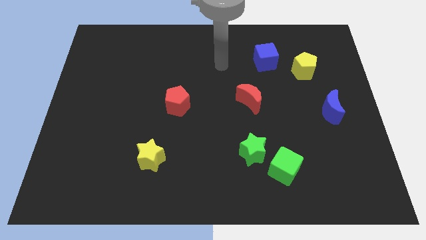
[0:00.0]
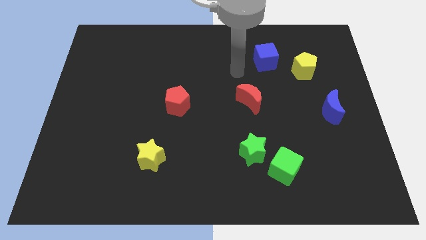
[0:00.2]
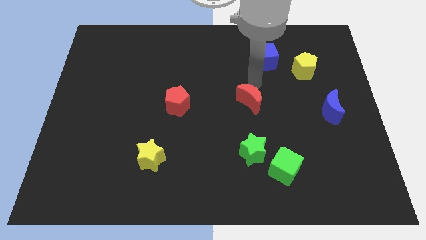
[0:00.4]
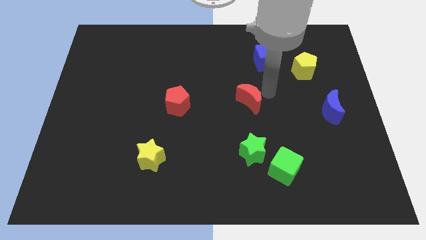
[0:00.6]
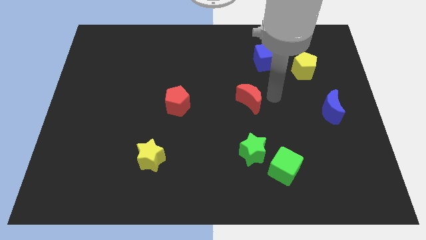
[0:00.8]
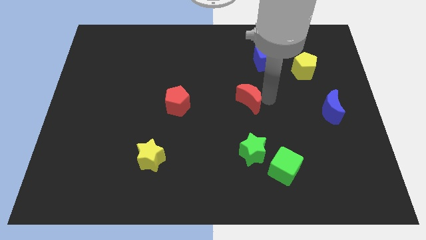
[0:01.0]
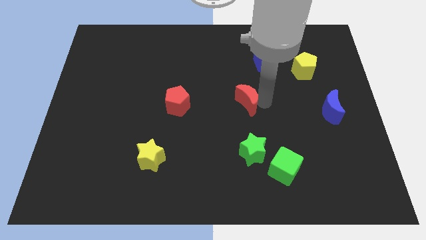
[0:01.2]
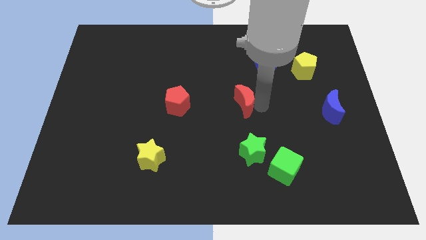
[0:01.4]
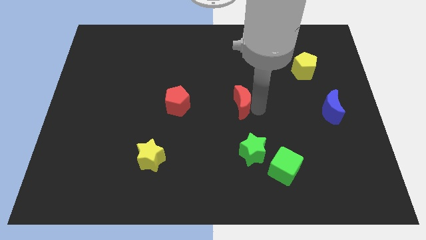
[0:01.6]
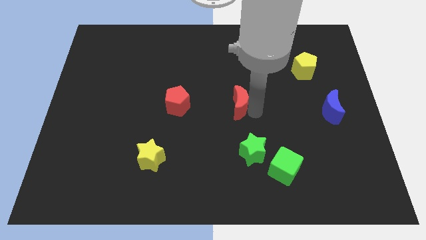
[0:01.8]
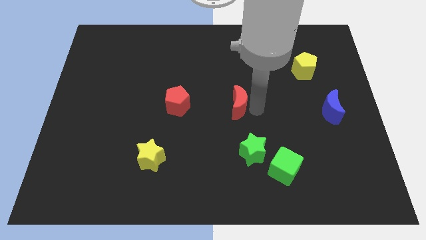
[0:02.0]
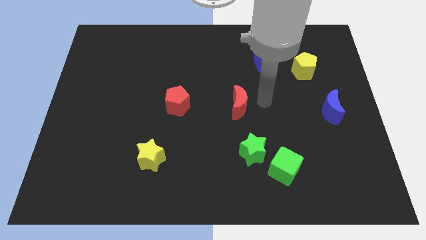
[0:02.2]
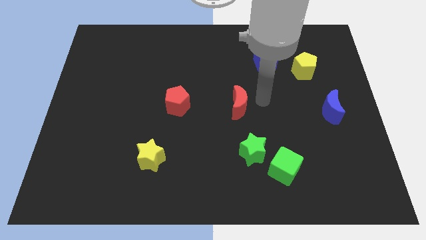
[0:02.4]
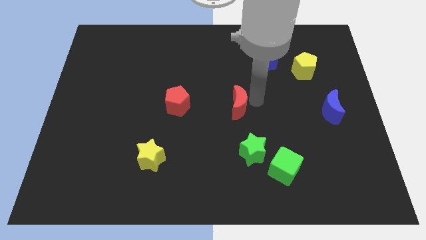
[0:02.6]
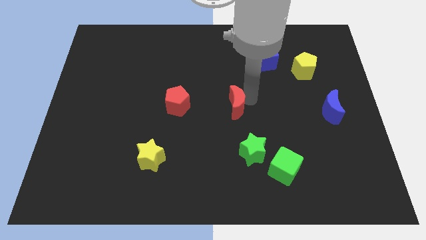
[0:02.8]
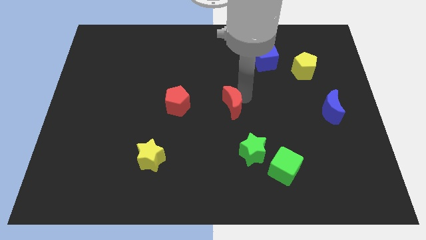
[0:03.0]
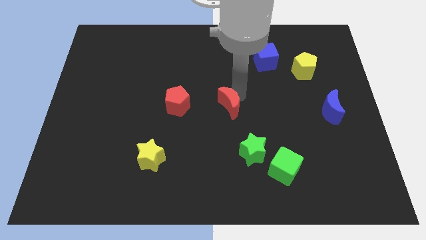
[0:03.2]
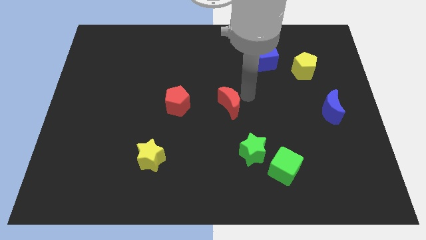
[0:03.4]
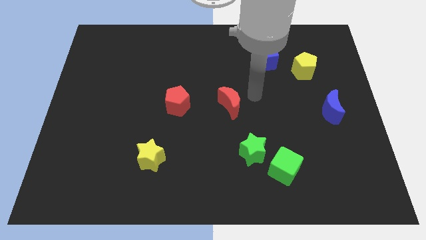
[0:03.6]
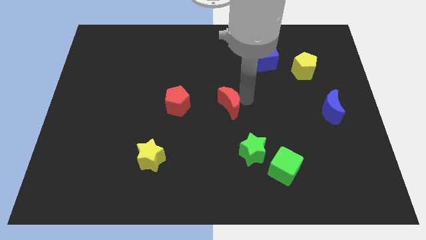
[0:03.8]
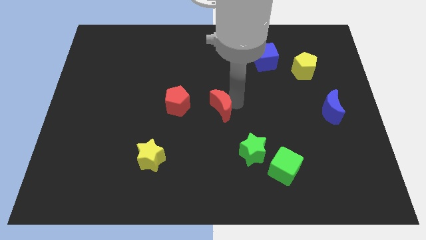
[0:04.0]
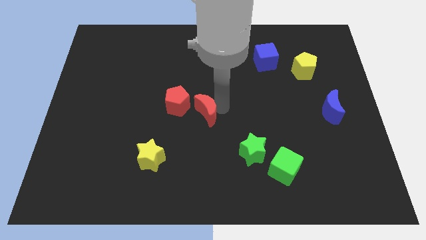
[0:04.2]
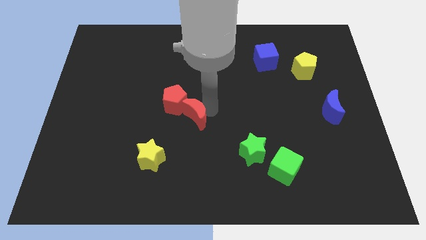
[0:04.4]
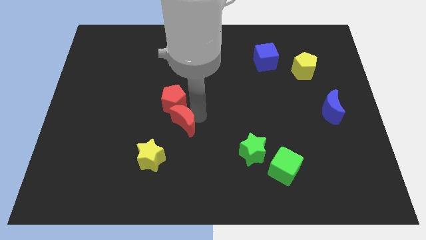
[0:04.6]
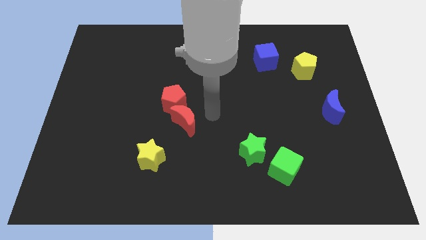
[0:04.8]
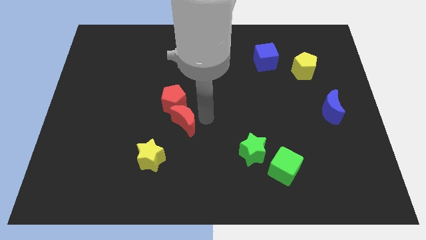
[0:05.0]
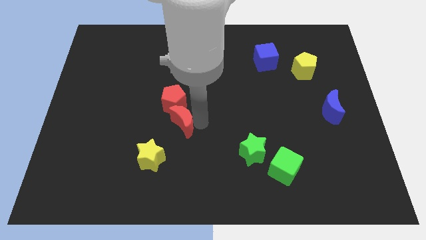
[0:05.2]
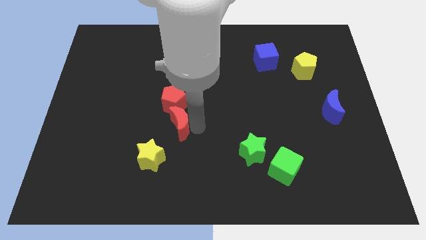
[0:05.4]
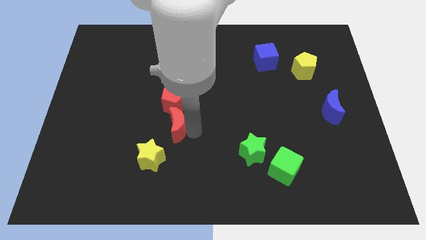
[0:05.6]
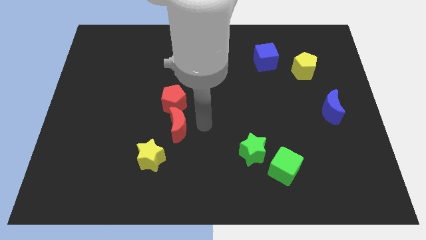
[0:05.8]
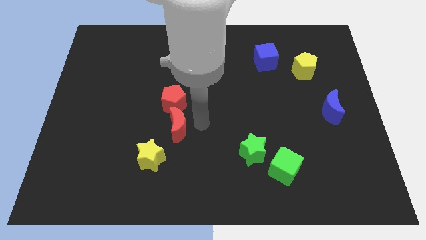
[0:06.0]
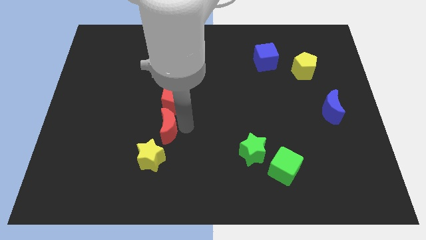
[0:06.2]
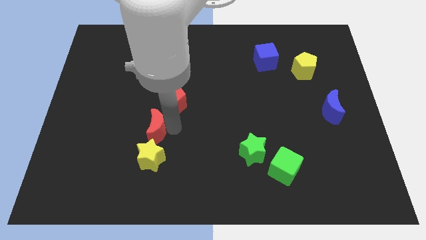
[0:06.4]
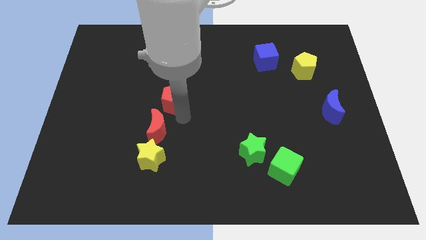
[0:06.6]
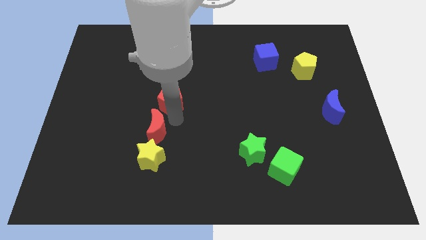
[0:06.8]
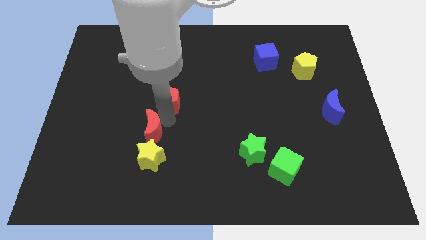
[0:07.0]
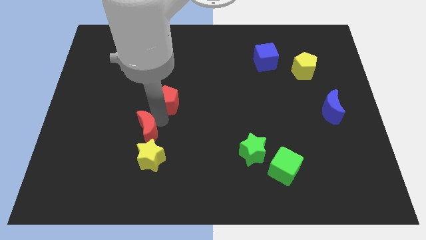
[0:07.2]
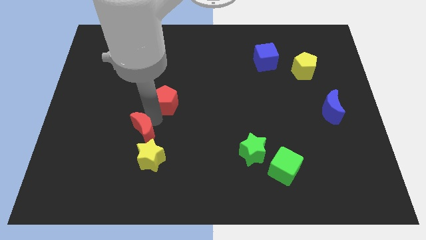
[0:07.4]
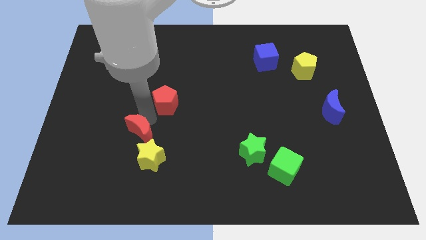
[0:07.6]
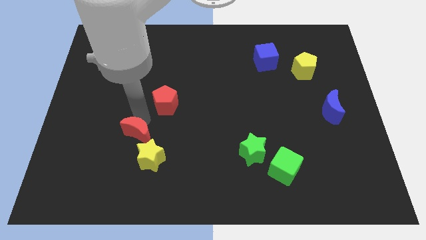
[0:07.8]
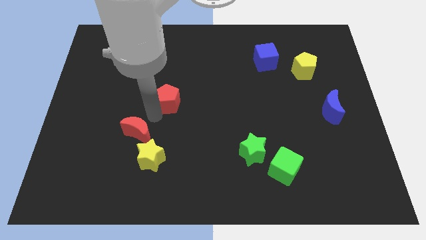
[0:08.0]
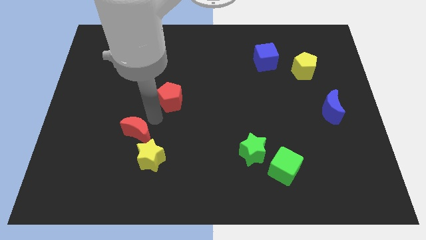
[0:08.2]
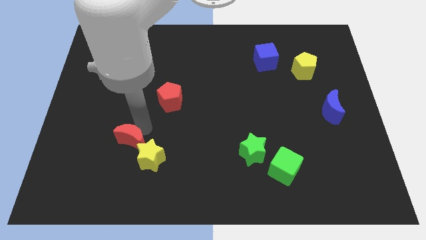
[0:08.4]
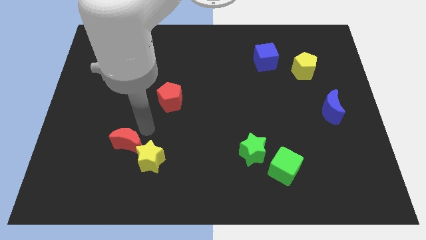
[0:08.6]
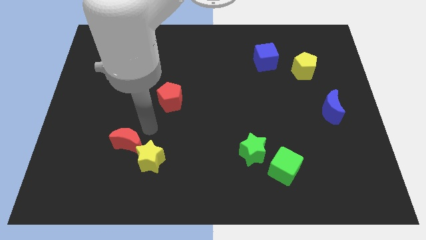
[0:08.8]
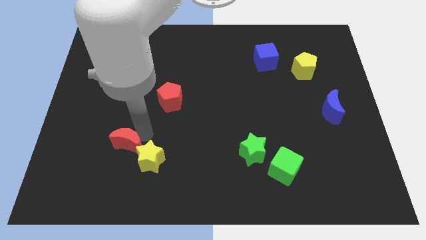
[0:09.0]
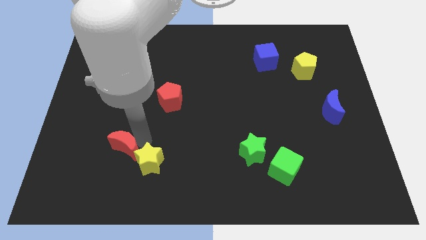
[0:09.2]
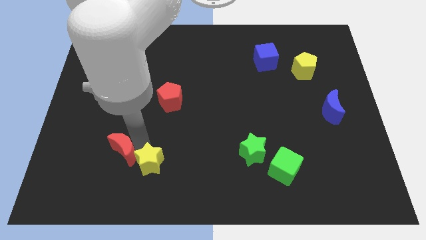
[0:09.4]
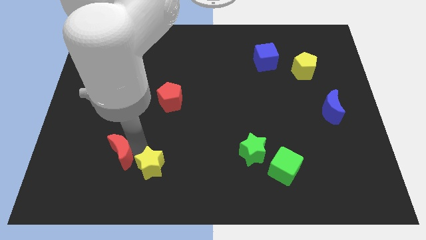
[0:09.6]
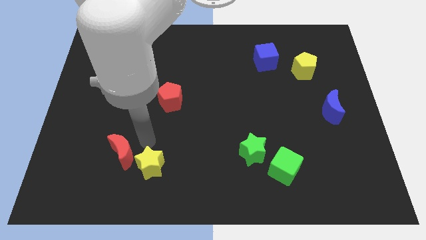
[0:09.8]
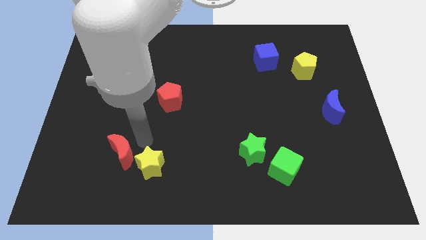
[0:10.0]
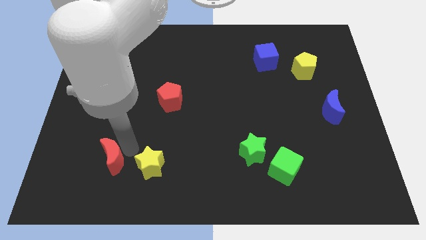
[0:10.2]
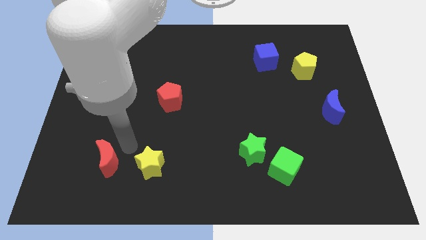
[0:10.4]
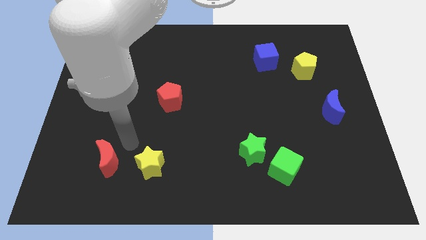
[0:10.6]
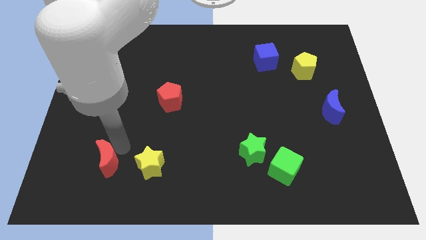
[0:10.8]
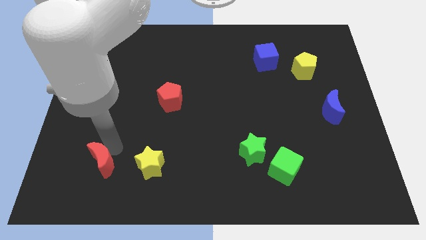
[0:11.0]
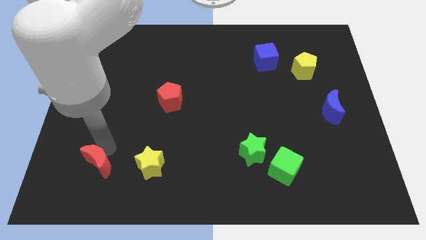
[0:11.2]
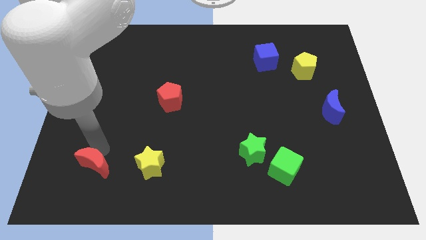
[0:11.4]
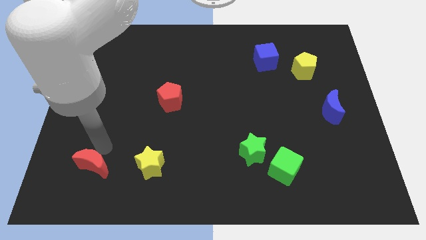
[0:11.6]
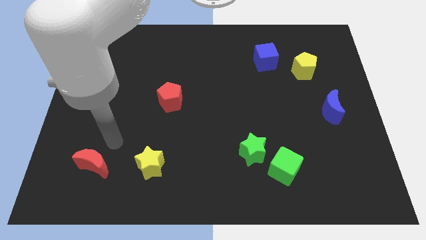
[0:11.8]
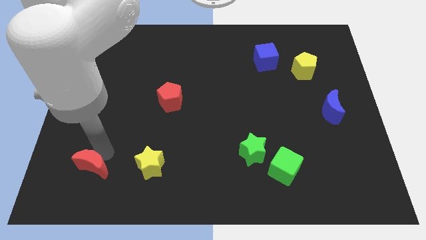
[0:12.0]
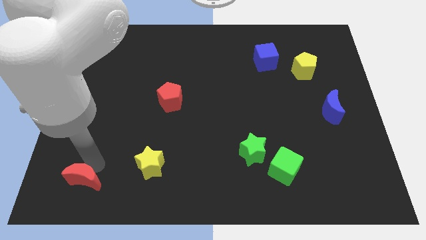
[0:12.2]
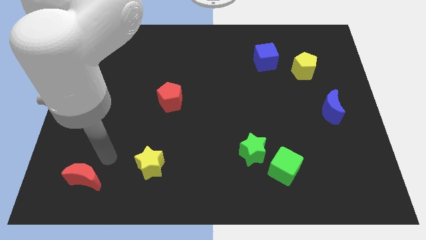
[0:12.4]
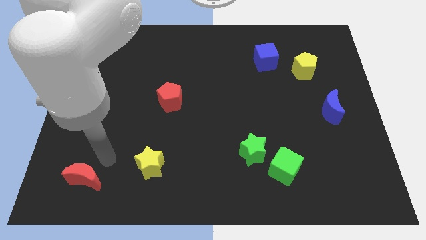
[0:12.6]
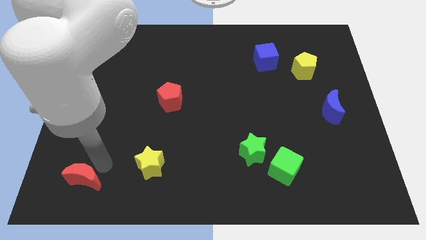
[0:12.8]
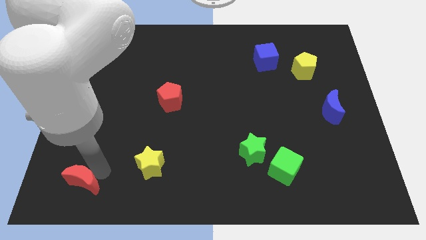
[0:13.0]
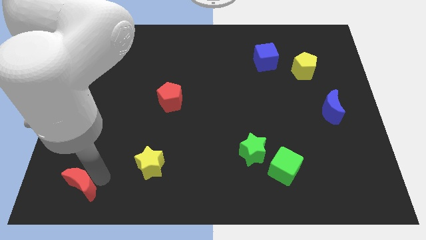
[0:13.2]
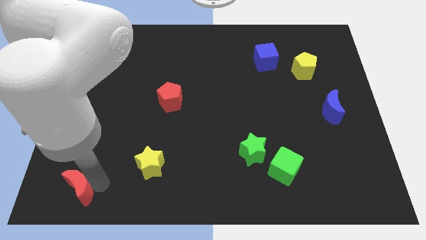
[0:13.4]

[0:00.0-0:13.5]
move the red moon to the lower left corner
